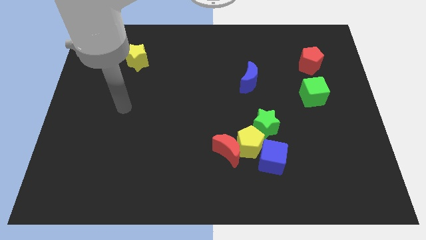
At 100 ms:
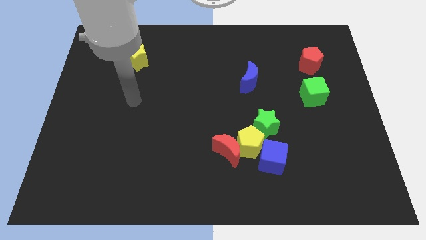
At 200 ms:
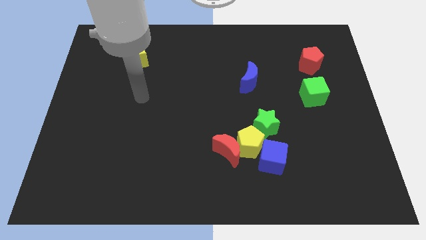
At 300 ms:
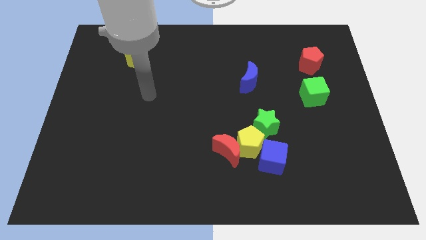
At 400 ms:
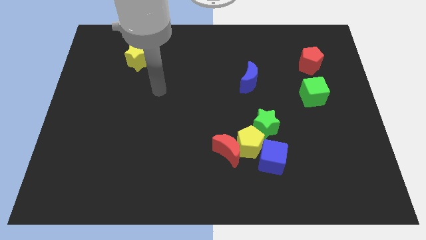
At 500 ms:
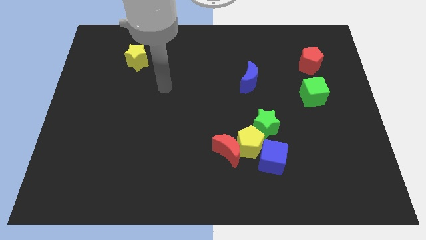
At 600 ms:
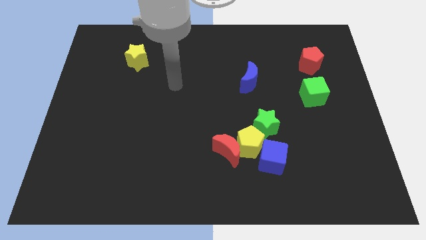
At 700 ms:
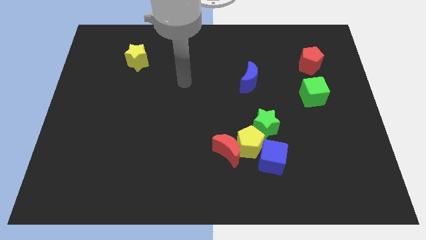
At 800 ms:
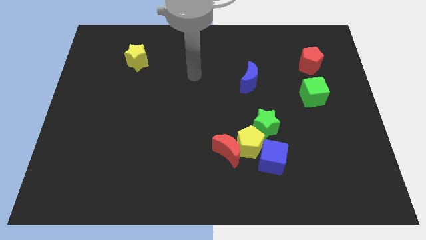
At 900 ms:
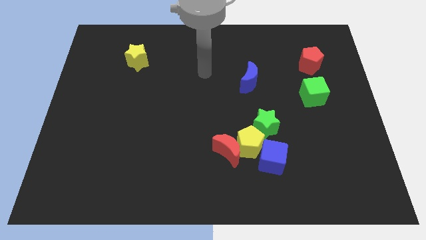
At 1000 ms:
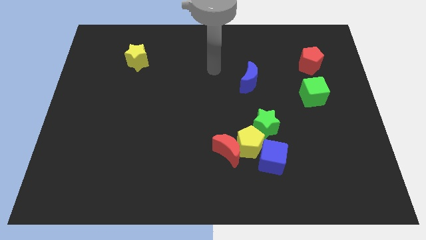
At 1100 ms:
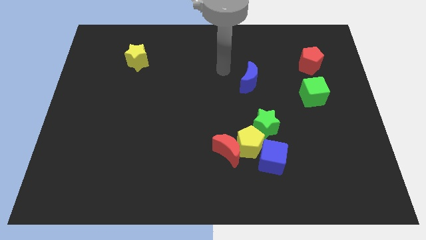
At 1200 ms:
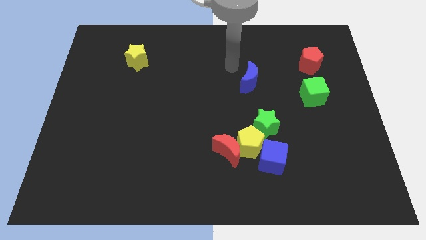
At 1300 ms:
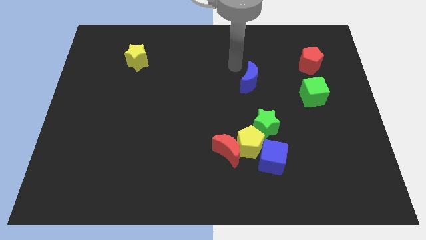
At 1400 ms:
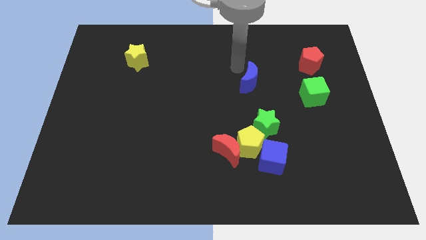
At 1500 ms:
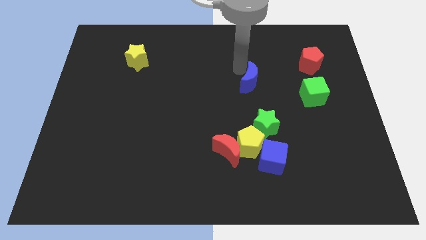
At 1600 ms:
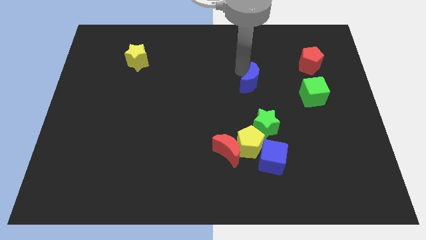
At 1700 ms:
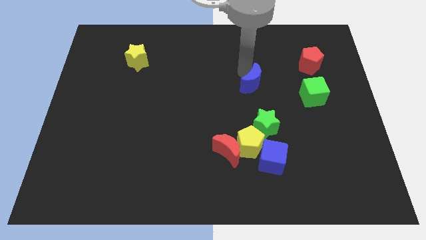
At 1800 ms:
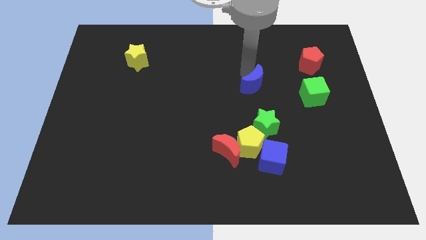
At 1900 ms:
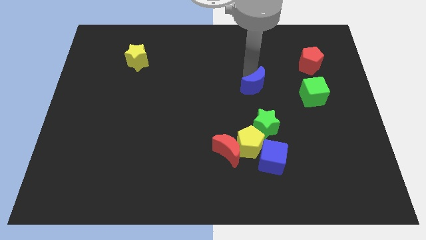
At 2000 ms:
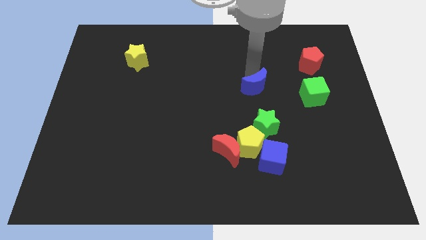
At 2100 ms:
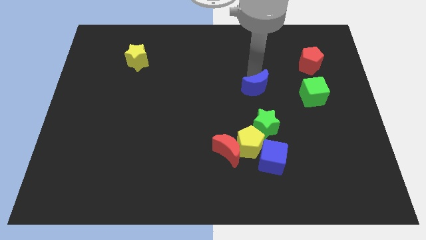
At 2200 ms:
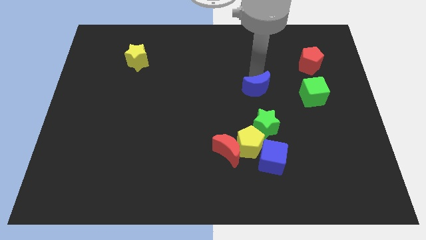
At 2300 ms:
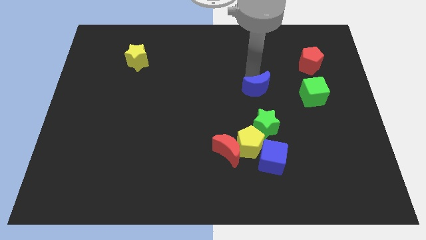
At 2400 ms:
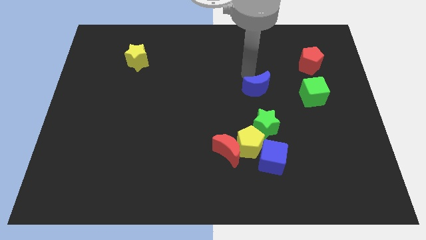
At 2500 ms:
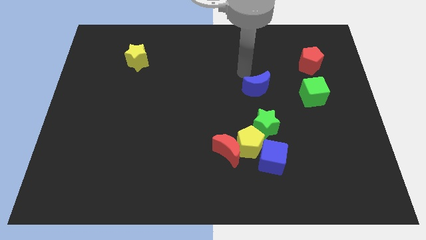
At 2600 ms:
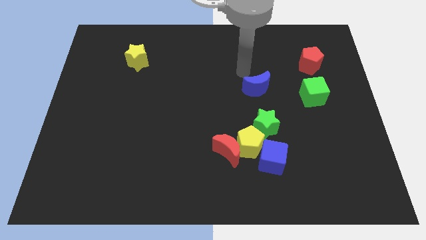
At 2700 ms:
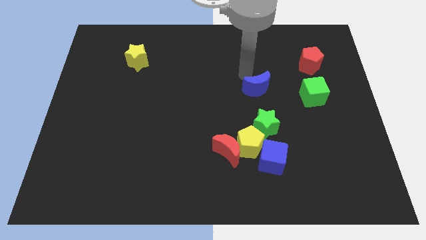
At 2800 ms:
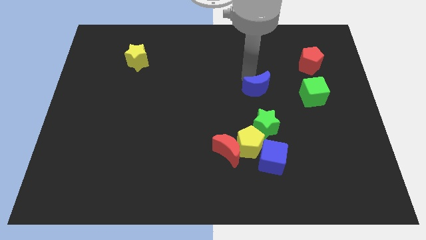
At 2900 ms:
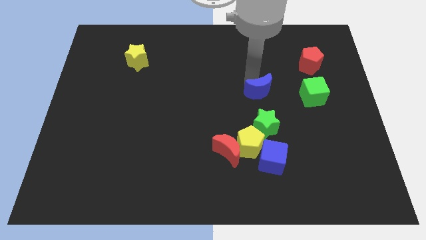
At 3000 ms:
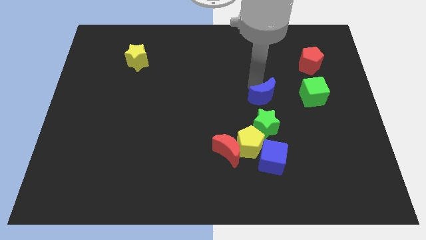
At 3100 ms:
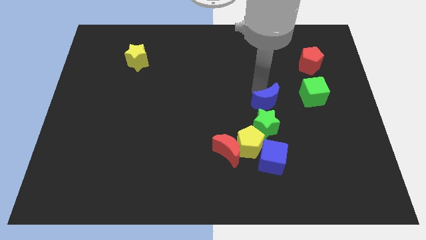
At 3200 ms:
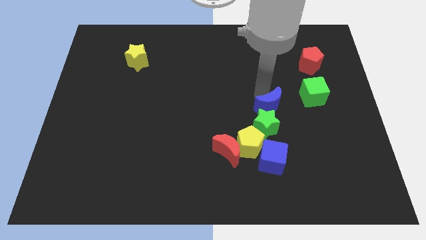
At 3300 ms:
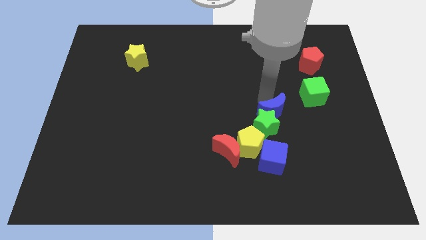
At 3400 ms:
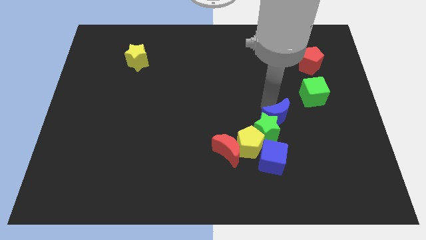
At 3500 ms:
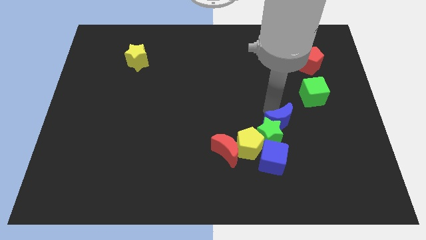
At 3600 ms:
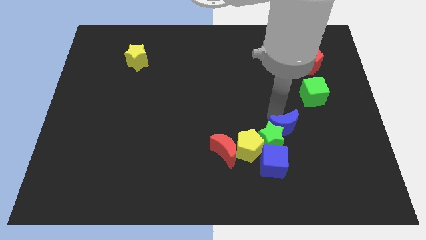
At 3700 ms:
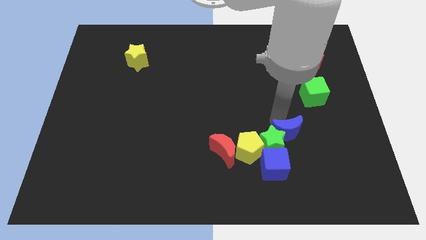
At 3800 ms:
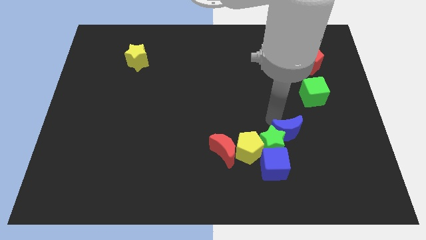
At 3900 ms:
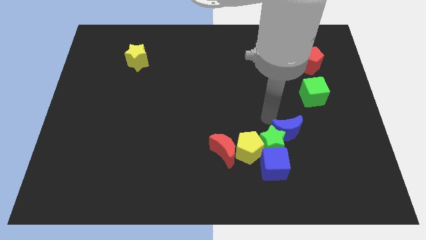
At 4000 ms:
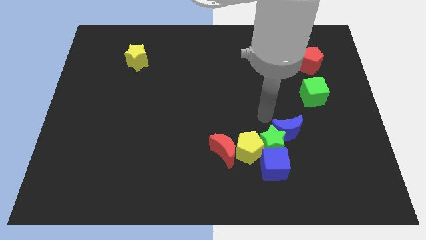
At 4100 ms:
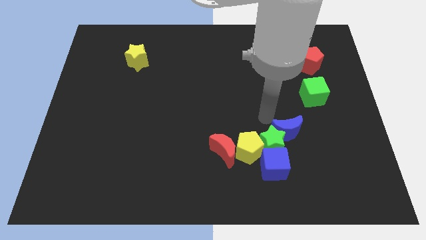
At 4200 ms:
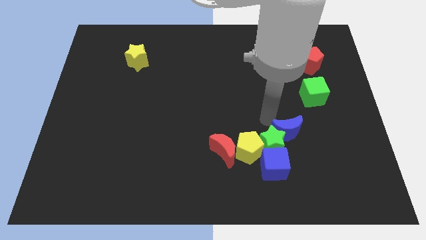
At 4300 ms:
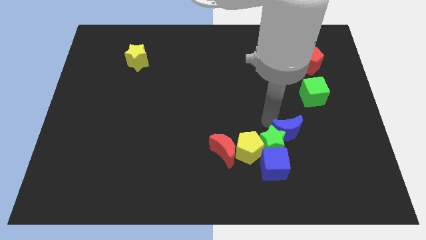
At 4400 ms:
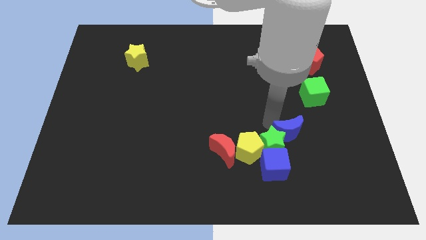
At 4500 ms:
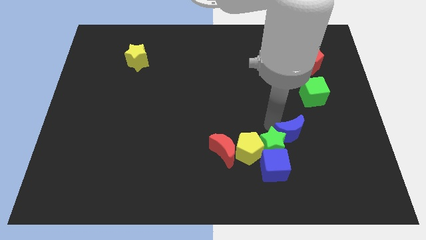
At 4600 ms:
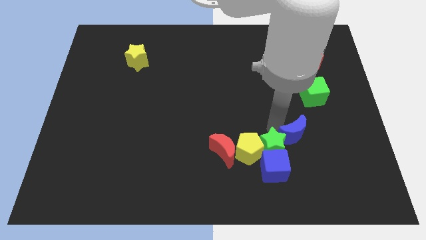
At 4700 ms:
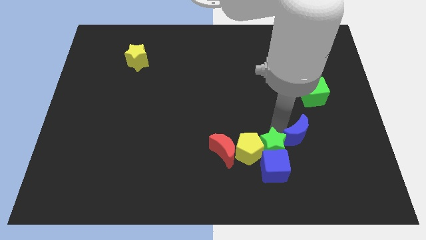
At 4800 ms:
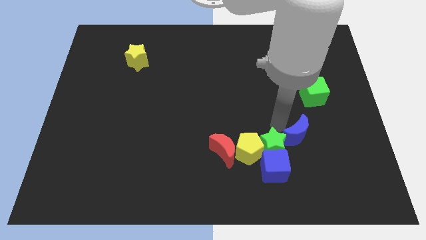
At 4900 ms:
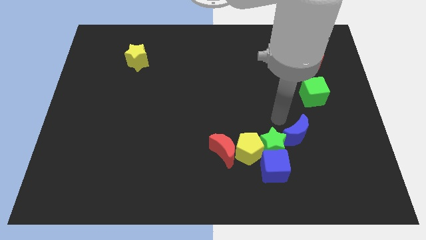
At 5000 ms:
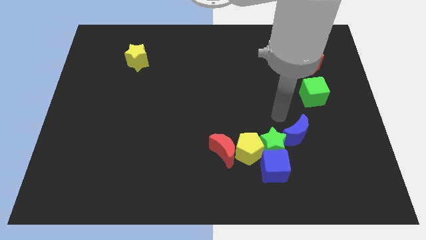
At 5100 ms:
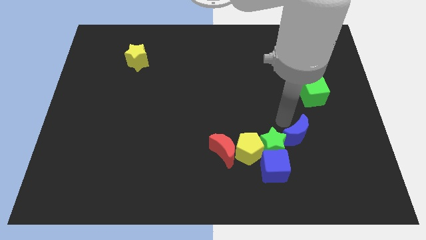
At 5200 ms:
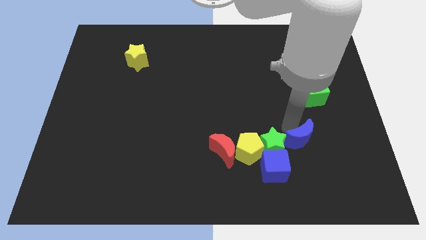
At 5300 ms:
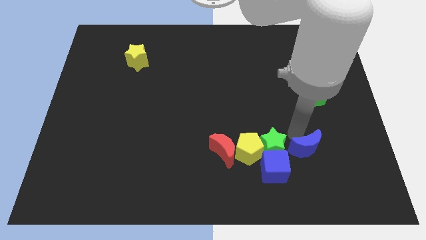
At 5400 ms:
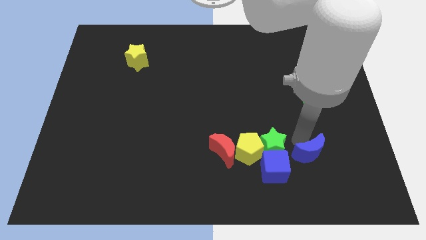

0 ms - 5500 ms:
move the blue moon just right of the blue cube

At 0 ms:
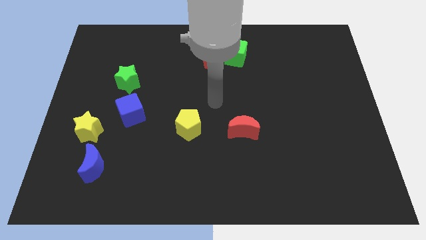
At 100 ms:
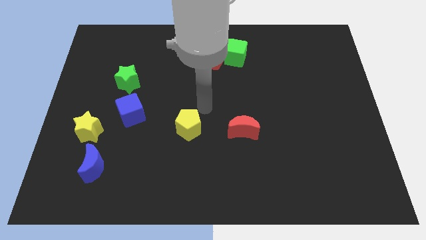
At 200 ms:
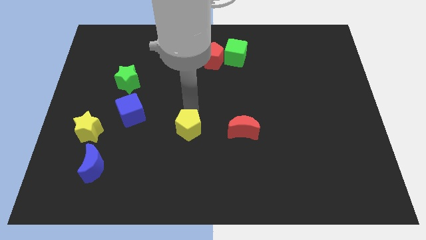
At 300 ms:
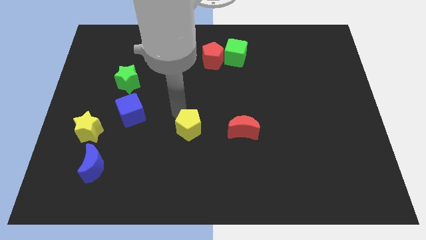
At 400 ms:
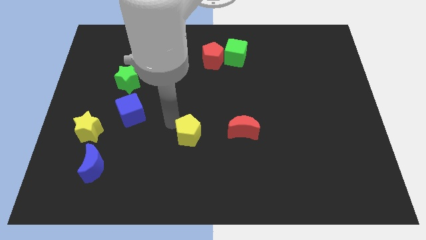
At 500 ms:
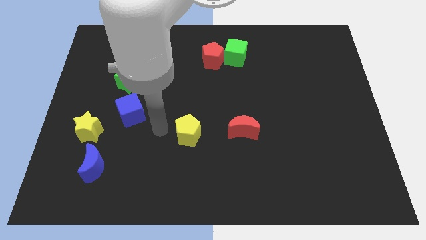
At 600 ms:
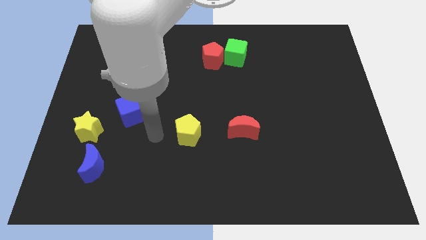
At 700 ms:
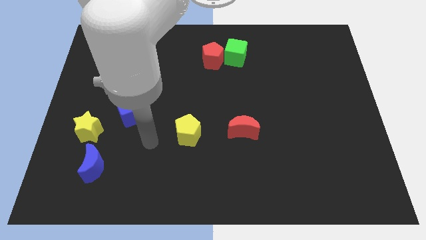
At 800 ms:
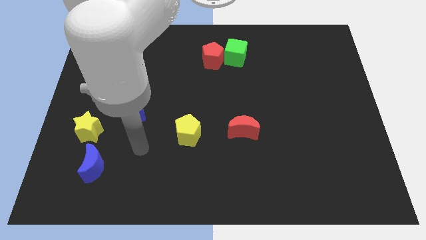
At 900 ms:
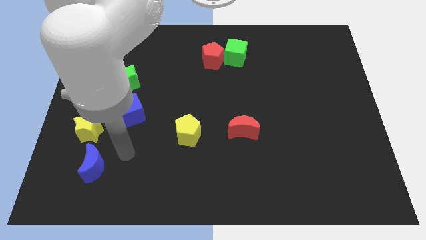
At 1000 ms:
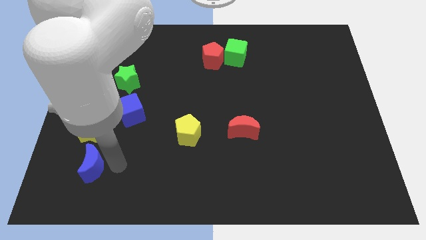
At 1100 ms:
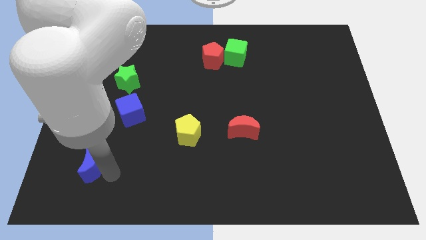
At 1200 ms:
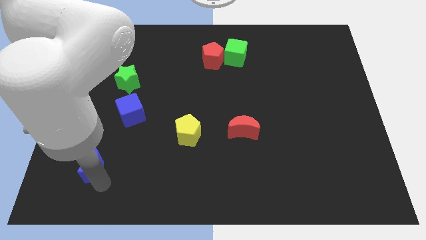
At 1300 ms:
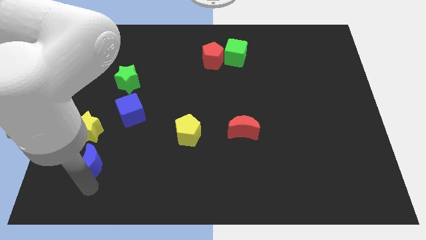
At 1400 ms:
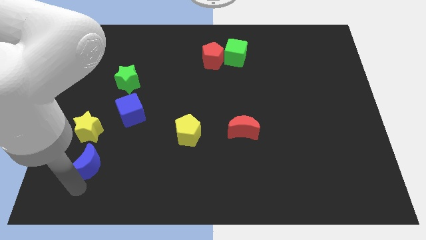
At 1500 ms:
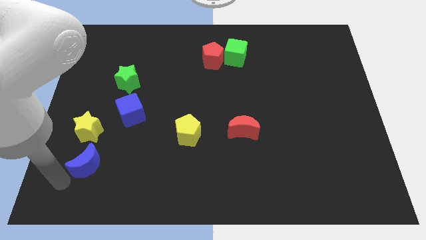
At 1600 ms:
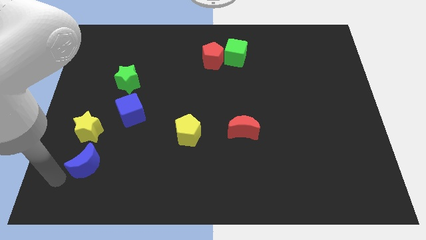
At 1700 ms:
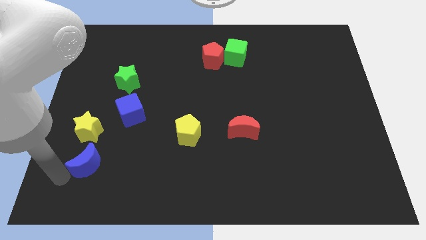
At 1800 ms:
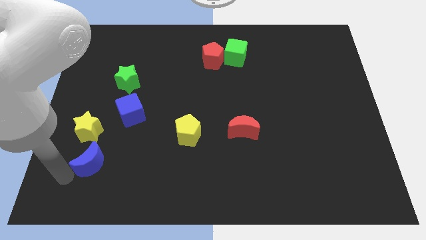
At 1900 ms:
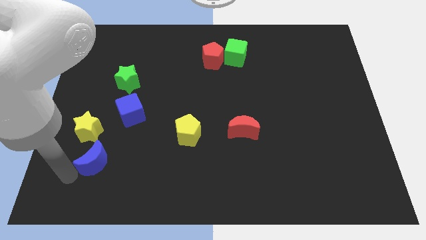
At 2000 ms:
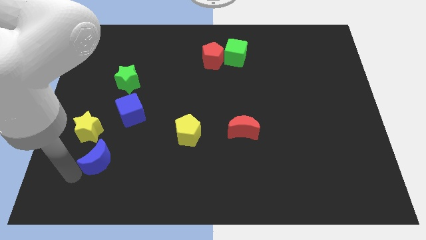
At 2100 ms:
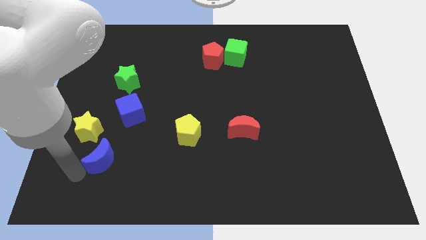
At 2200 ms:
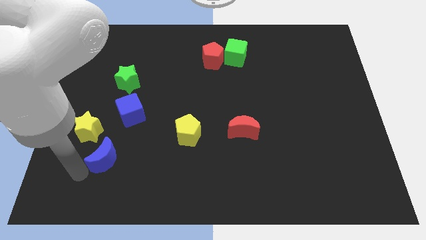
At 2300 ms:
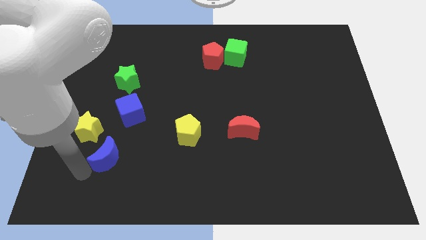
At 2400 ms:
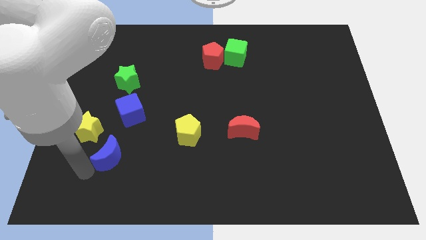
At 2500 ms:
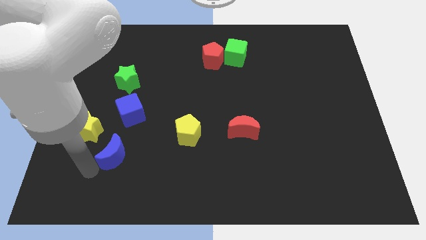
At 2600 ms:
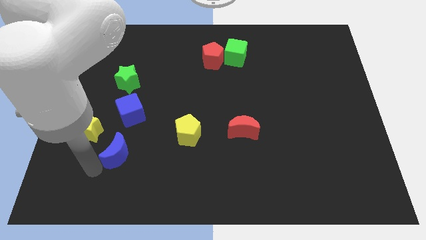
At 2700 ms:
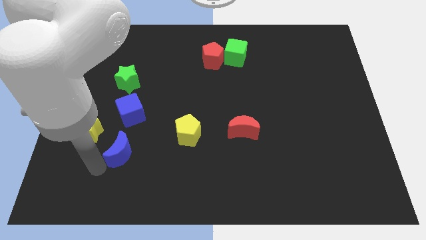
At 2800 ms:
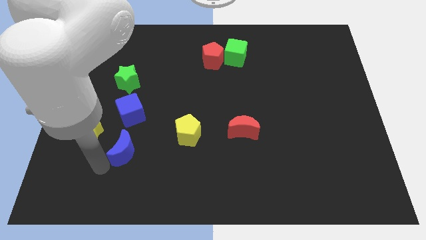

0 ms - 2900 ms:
put the blue moon left of the yellow pentagon
